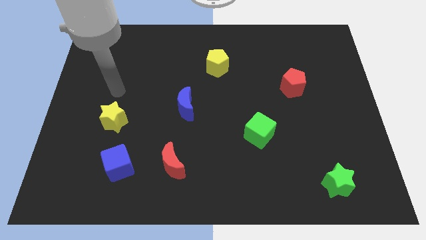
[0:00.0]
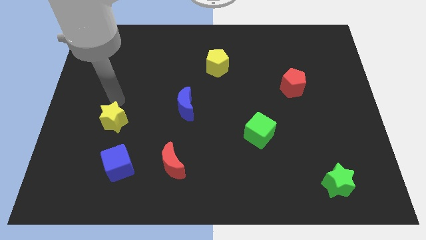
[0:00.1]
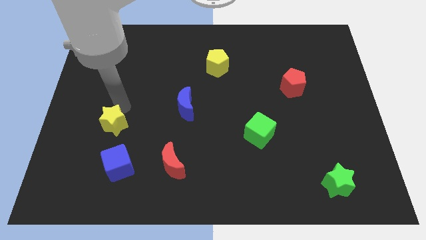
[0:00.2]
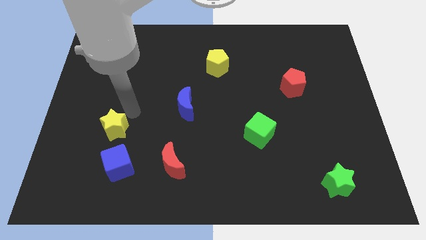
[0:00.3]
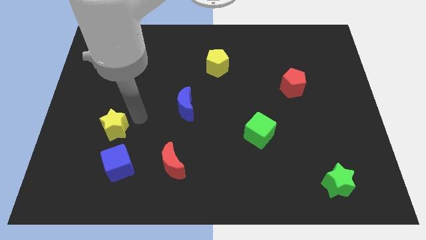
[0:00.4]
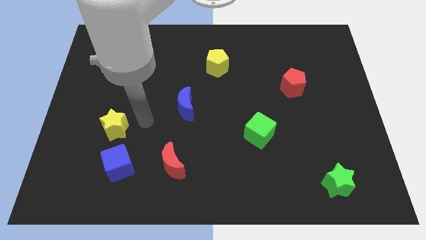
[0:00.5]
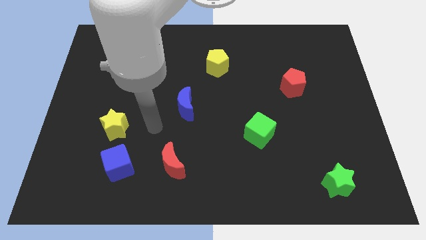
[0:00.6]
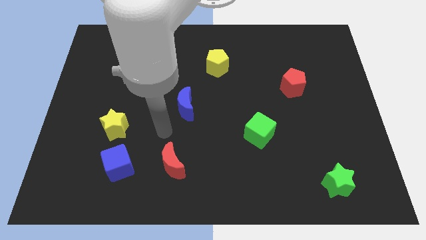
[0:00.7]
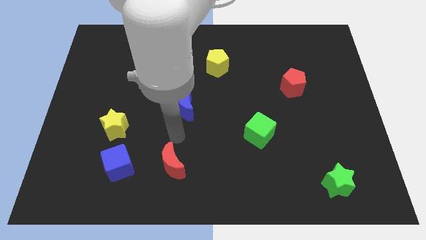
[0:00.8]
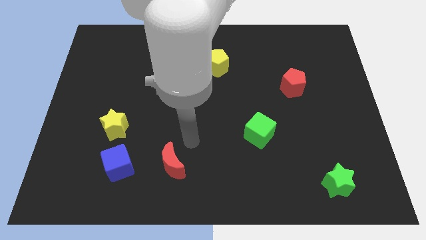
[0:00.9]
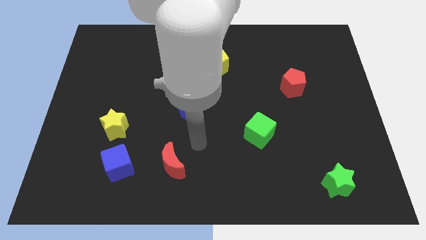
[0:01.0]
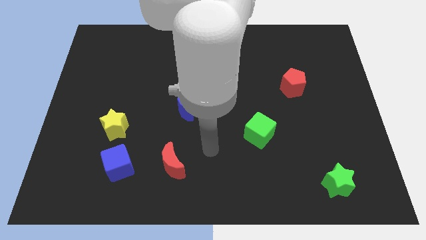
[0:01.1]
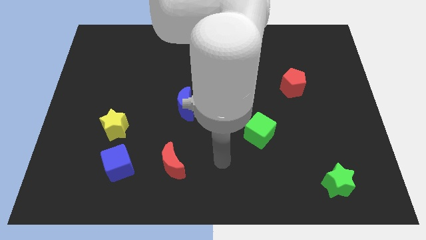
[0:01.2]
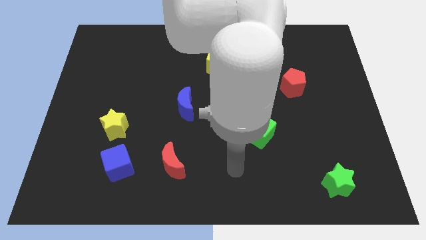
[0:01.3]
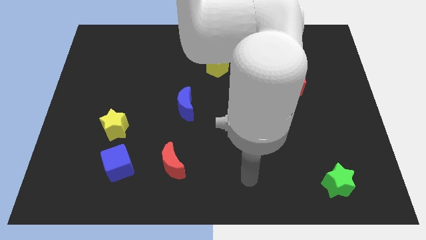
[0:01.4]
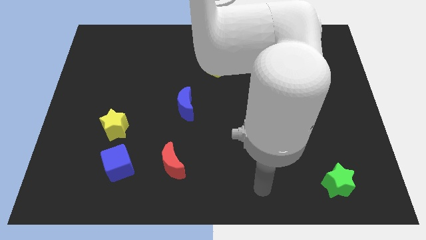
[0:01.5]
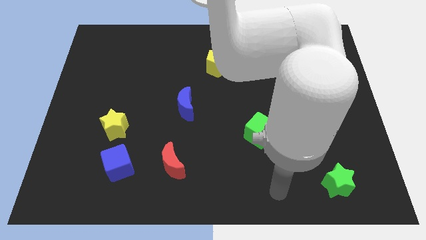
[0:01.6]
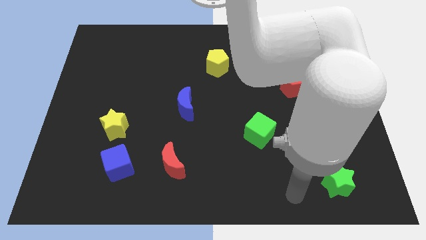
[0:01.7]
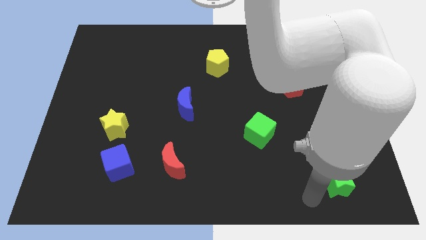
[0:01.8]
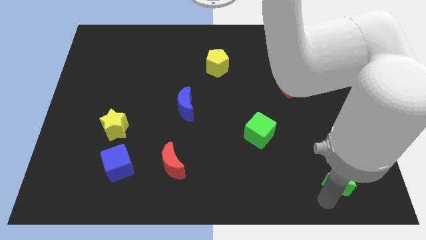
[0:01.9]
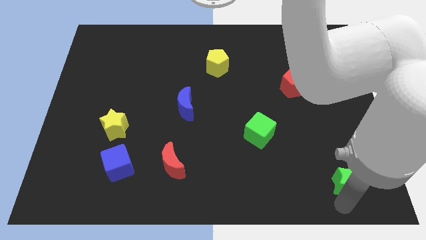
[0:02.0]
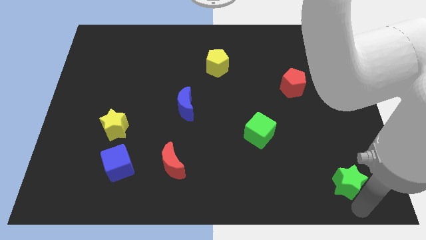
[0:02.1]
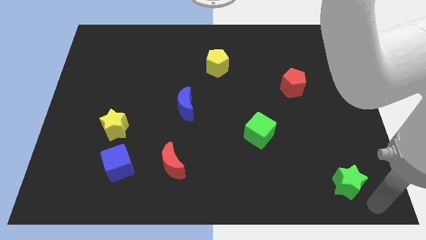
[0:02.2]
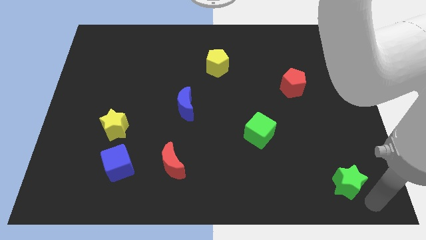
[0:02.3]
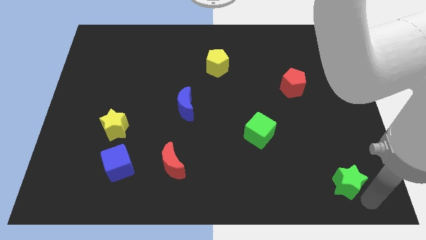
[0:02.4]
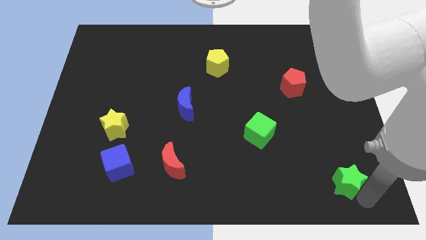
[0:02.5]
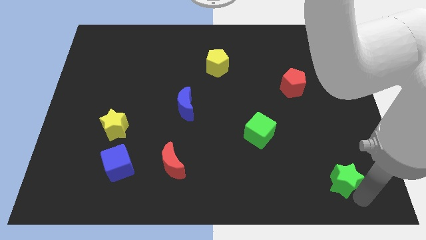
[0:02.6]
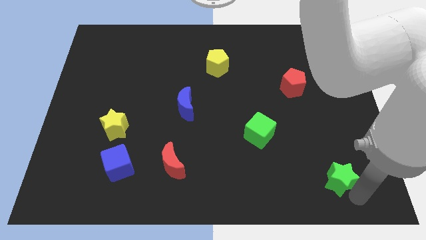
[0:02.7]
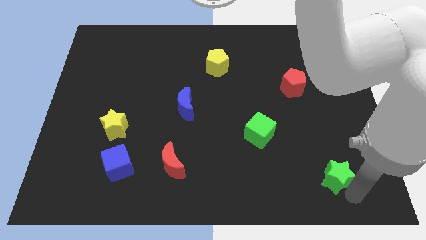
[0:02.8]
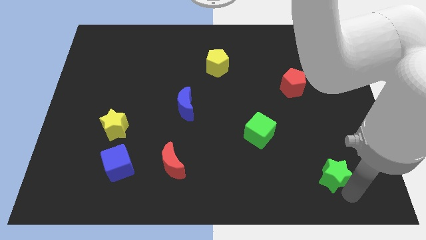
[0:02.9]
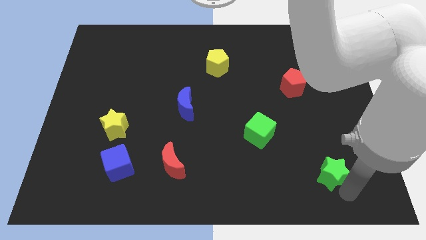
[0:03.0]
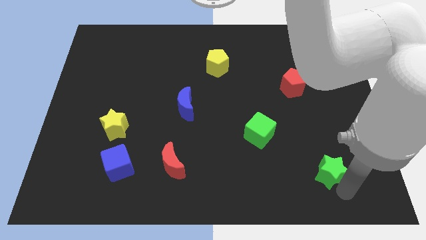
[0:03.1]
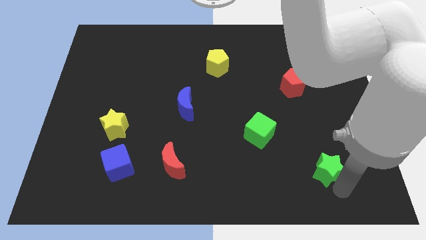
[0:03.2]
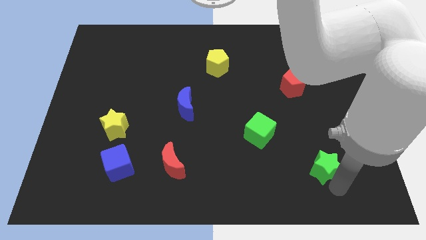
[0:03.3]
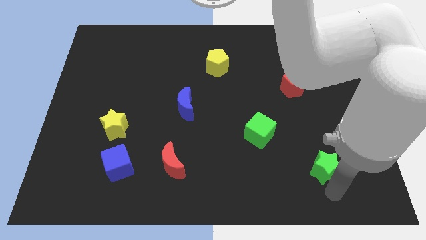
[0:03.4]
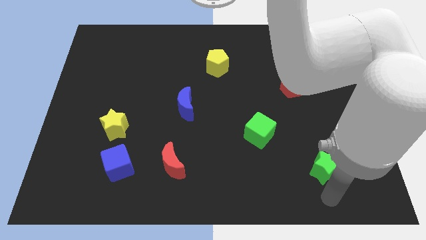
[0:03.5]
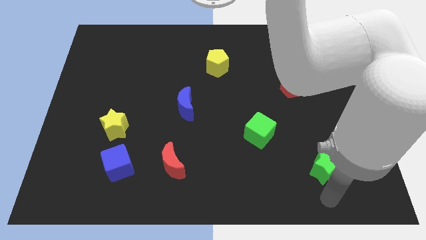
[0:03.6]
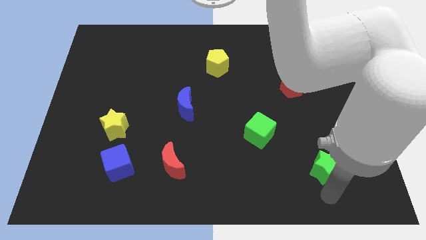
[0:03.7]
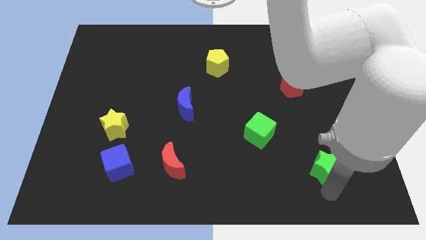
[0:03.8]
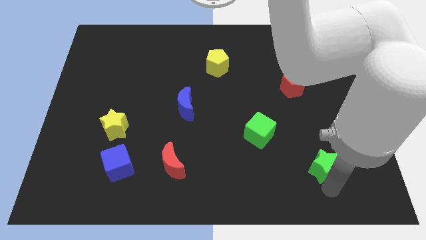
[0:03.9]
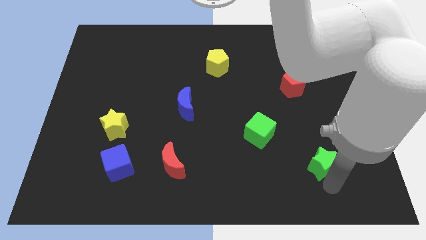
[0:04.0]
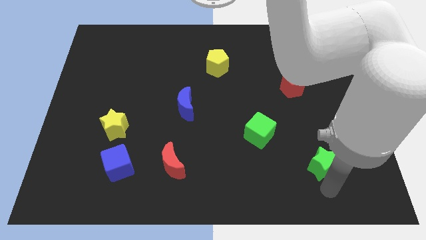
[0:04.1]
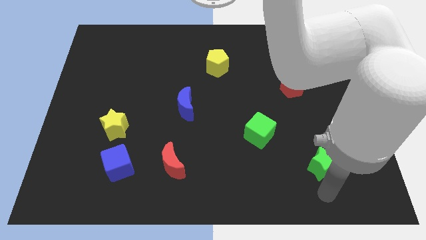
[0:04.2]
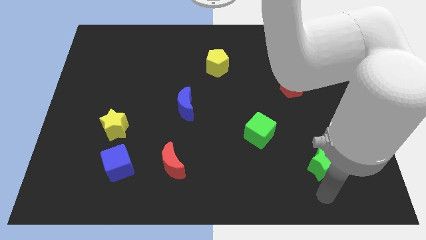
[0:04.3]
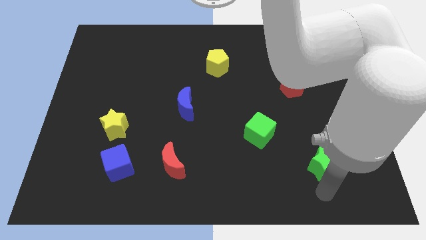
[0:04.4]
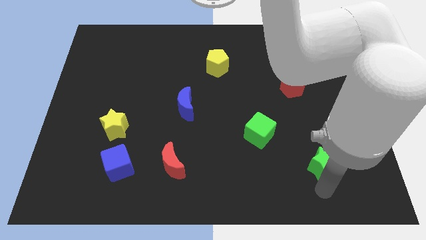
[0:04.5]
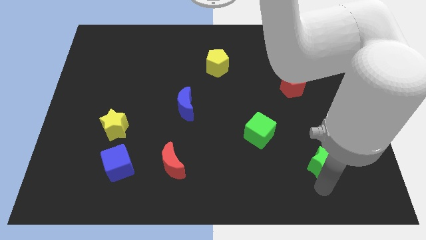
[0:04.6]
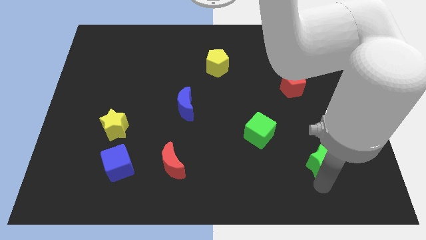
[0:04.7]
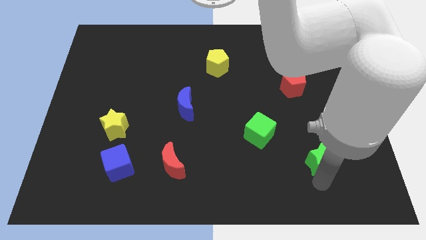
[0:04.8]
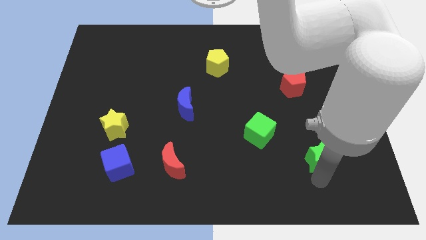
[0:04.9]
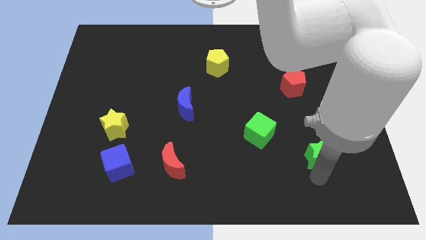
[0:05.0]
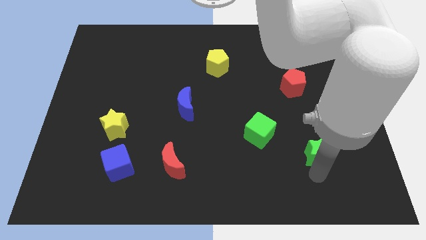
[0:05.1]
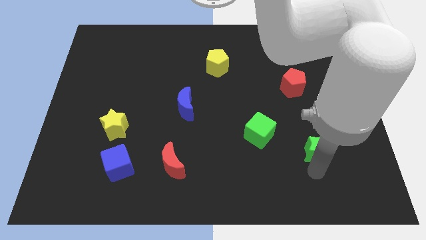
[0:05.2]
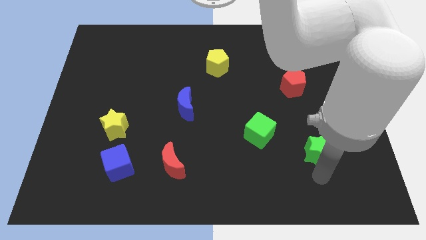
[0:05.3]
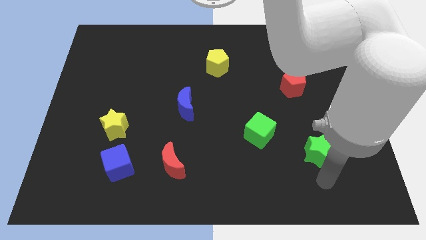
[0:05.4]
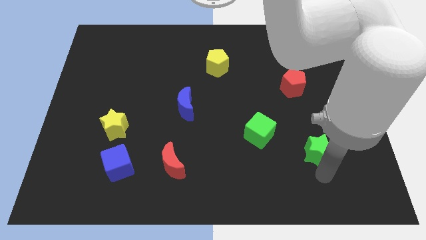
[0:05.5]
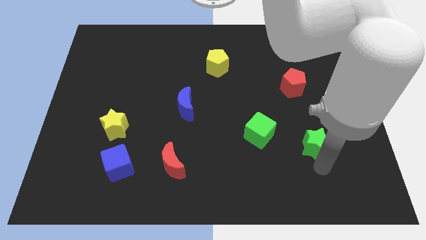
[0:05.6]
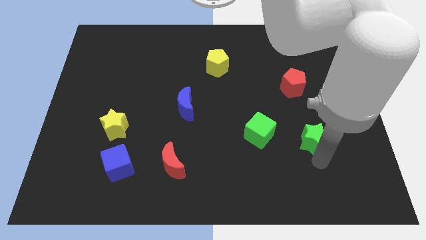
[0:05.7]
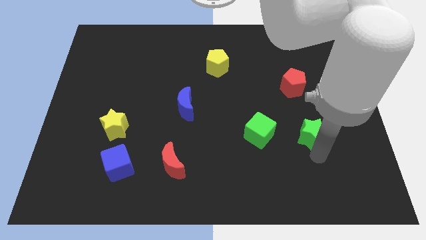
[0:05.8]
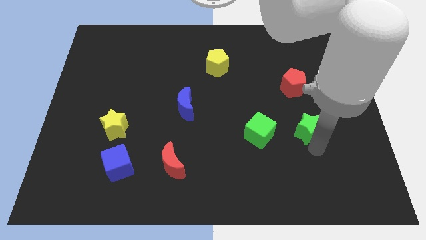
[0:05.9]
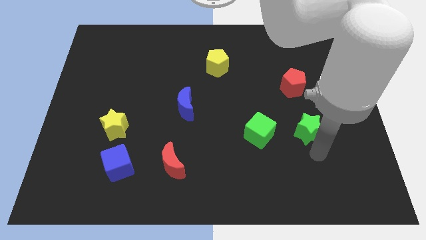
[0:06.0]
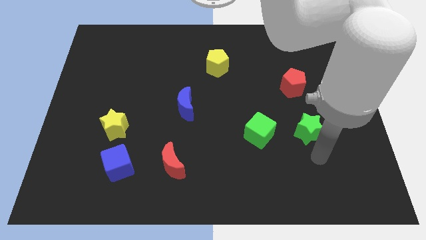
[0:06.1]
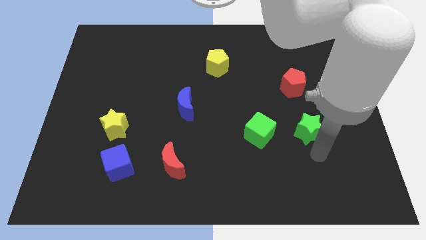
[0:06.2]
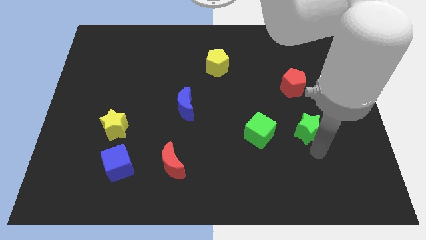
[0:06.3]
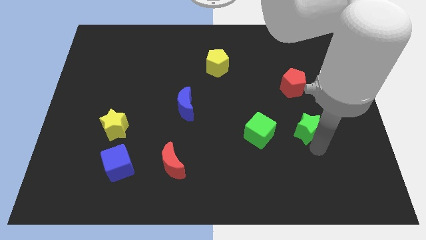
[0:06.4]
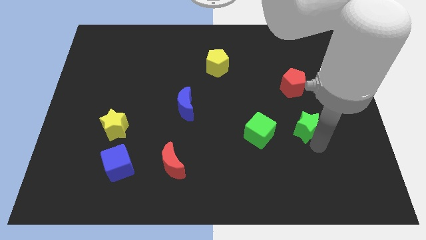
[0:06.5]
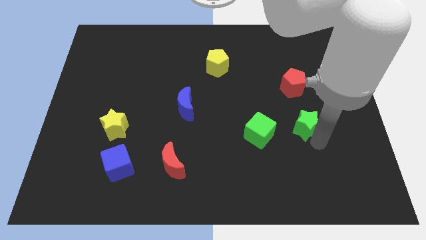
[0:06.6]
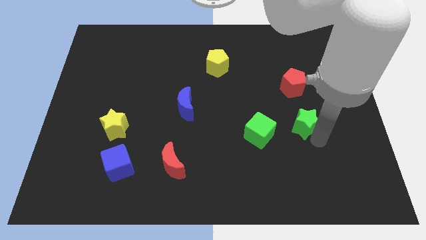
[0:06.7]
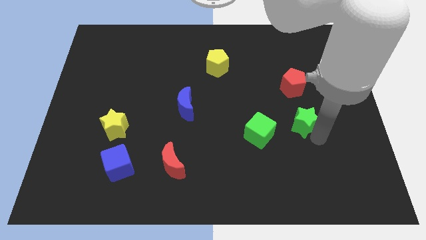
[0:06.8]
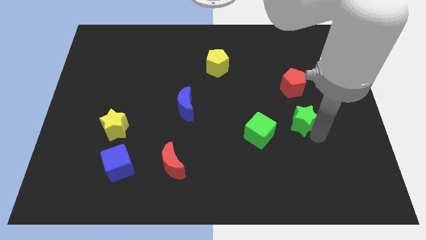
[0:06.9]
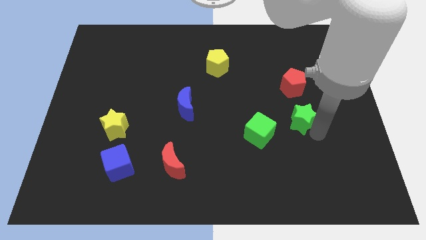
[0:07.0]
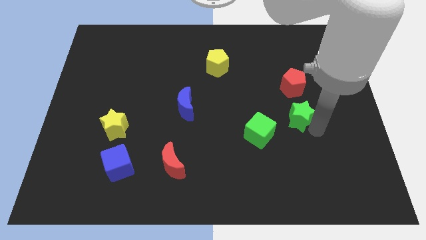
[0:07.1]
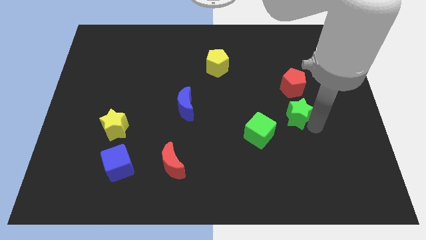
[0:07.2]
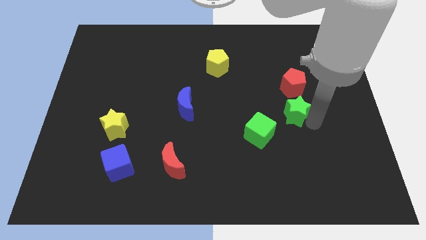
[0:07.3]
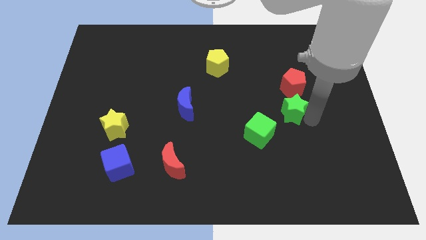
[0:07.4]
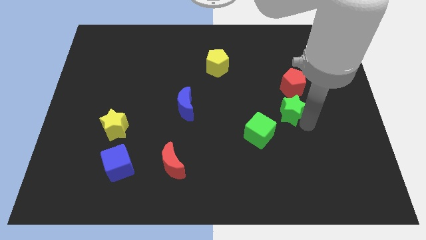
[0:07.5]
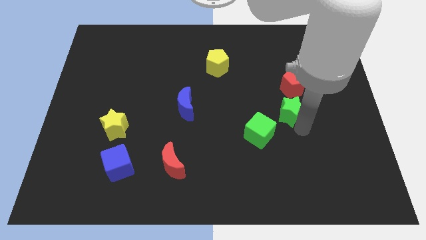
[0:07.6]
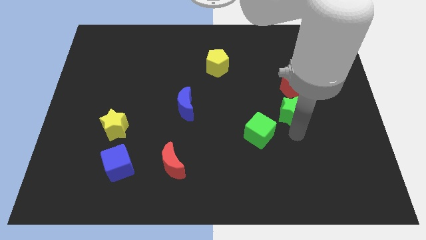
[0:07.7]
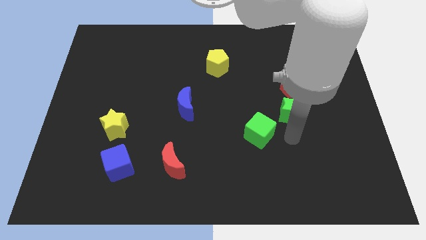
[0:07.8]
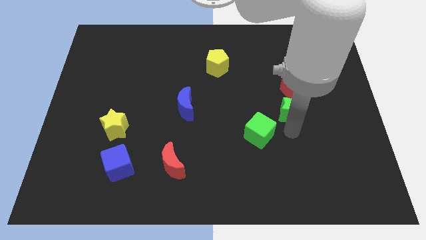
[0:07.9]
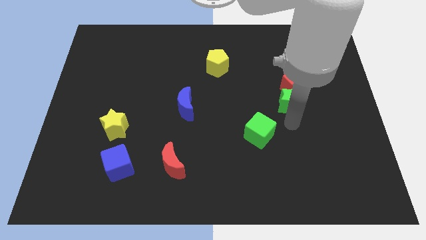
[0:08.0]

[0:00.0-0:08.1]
slide the green star close to the red pentagon
